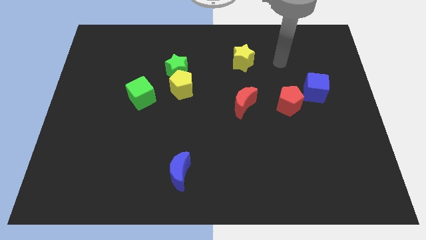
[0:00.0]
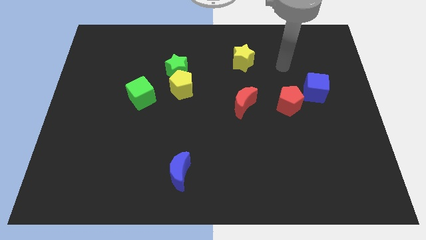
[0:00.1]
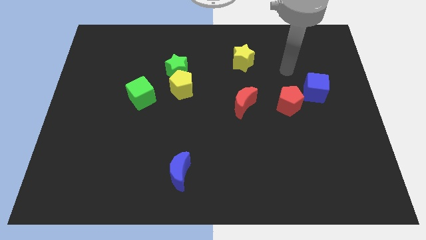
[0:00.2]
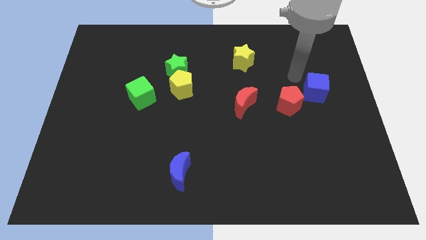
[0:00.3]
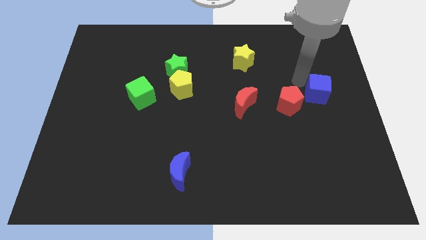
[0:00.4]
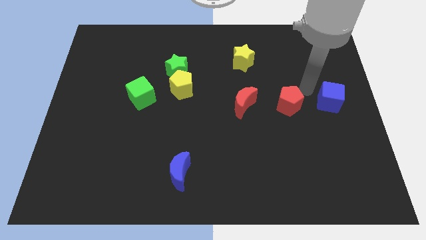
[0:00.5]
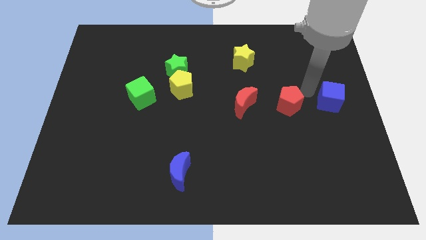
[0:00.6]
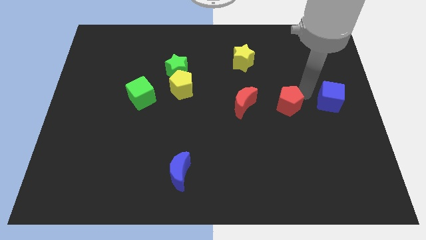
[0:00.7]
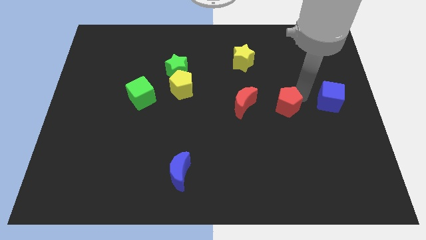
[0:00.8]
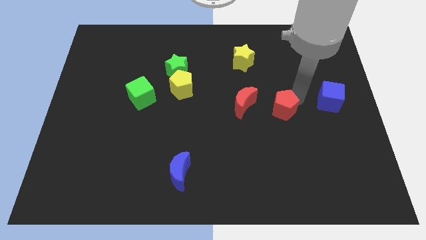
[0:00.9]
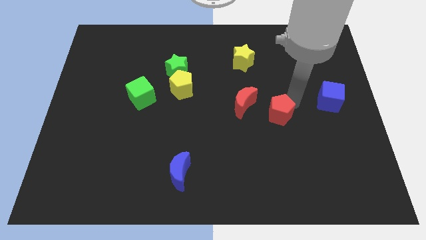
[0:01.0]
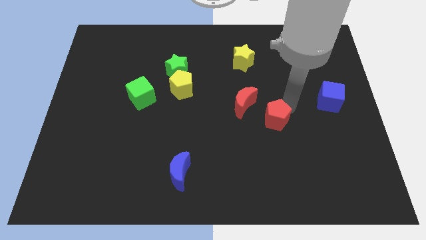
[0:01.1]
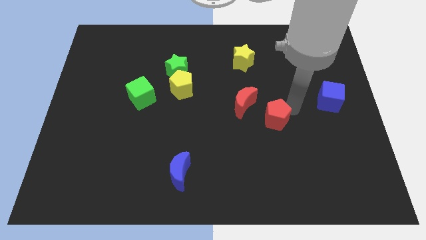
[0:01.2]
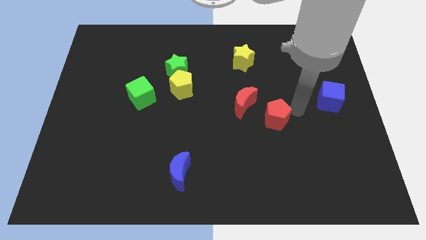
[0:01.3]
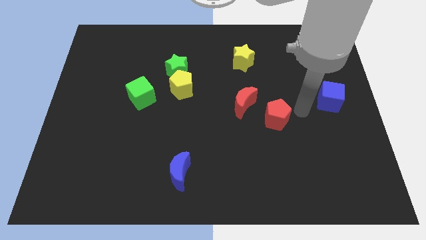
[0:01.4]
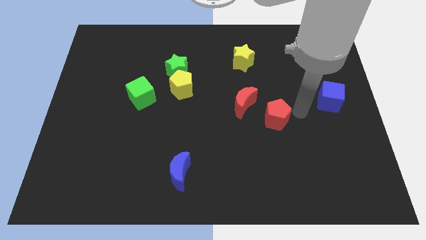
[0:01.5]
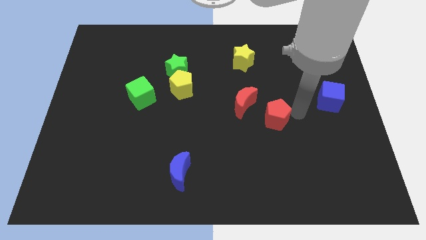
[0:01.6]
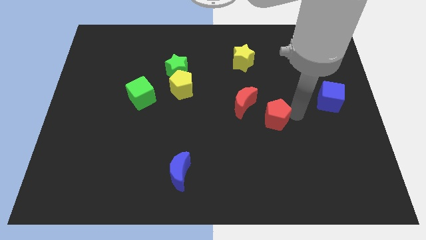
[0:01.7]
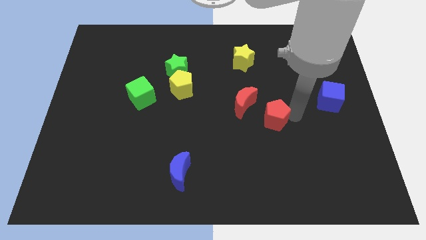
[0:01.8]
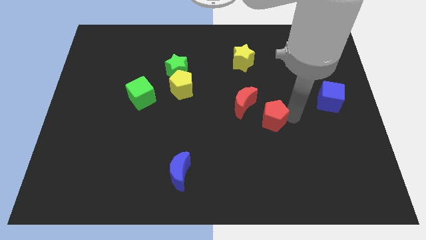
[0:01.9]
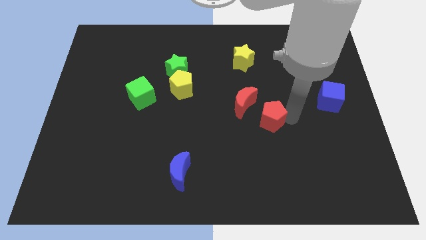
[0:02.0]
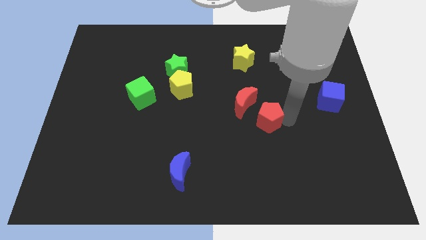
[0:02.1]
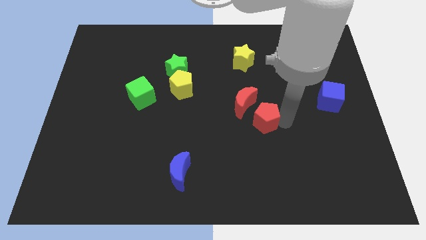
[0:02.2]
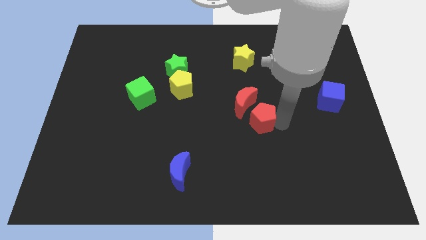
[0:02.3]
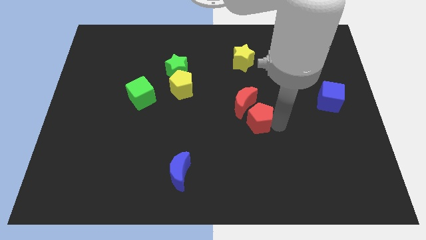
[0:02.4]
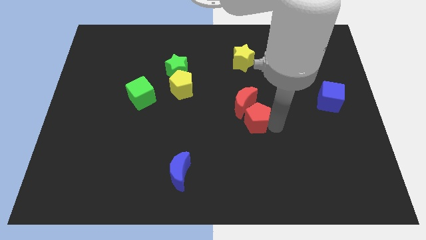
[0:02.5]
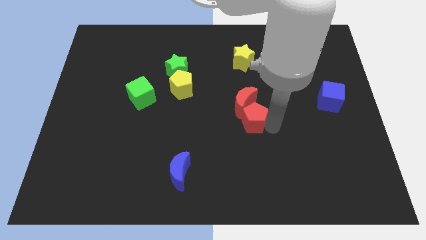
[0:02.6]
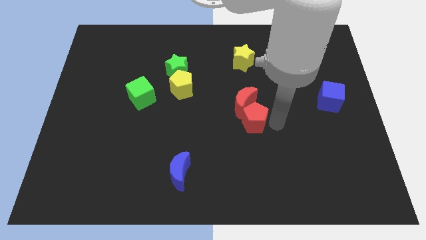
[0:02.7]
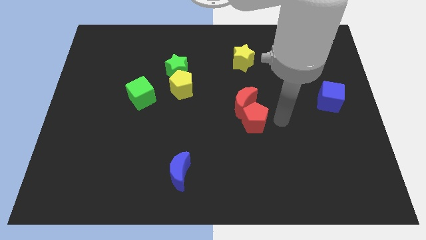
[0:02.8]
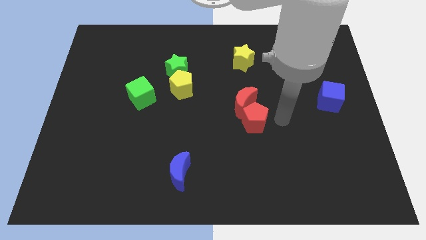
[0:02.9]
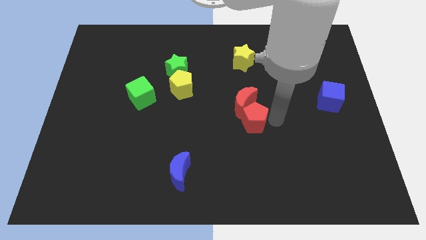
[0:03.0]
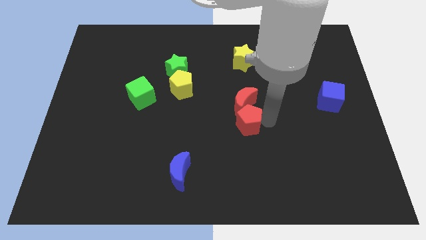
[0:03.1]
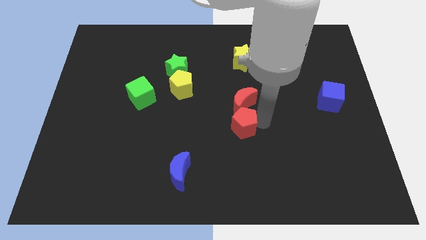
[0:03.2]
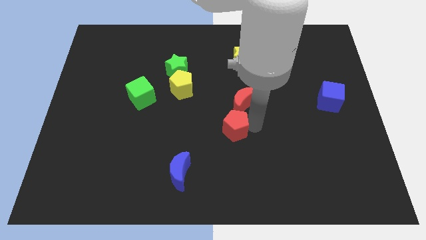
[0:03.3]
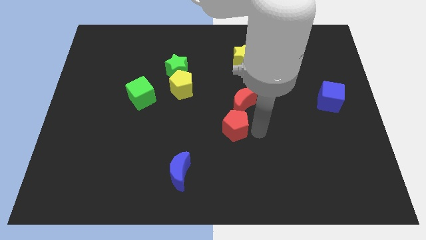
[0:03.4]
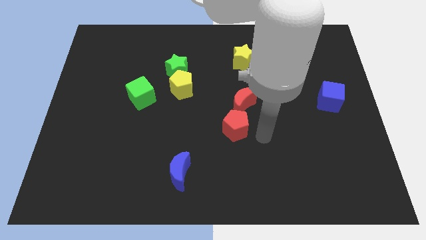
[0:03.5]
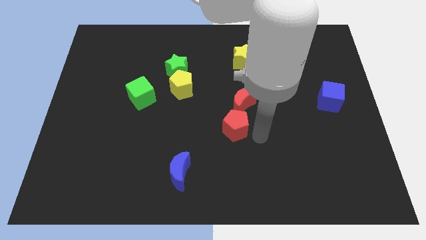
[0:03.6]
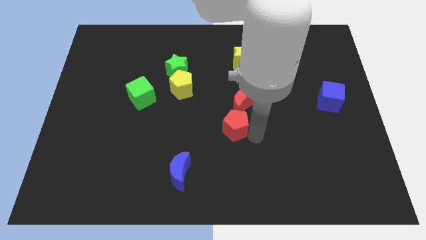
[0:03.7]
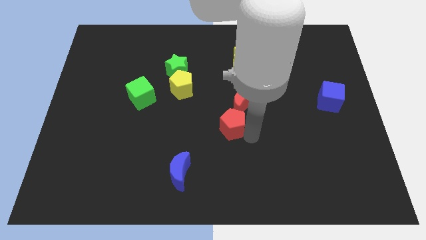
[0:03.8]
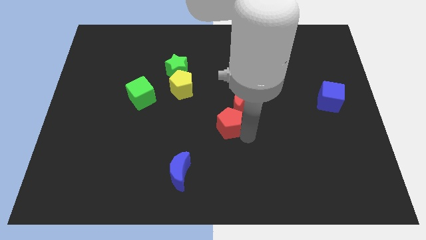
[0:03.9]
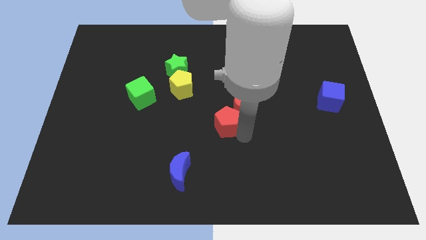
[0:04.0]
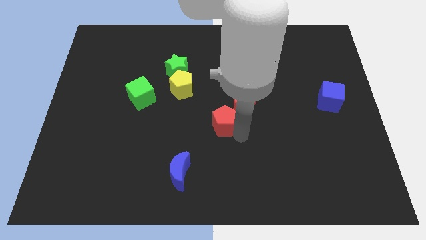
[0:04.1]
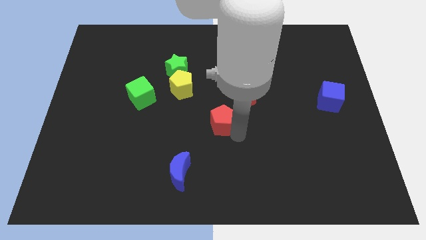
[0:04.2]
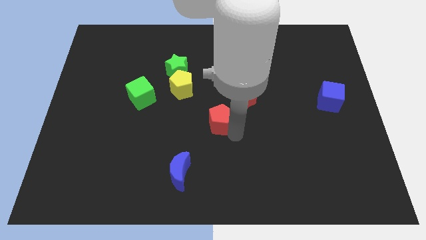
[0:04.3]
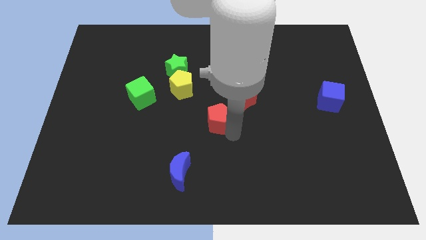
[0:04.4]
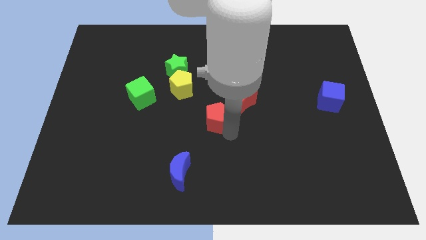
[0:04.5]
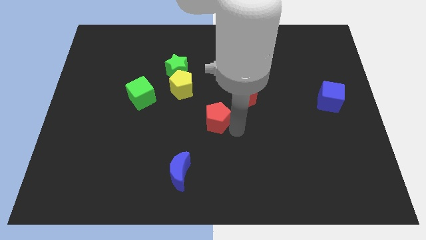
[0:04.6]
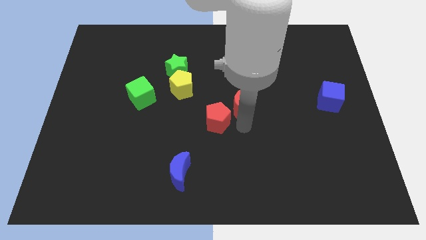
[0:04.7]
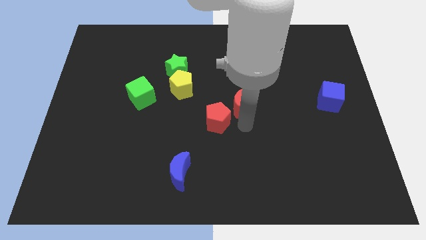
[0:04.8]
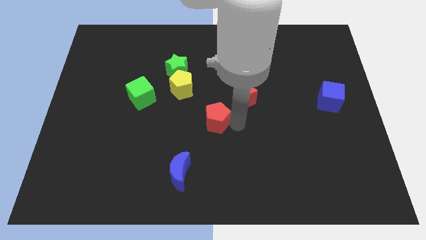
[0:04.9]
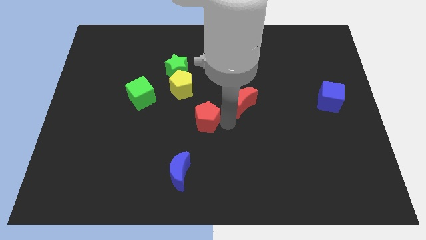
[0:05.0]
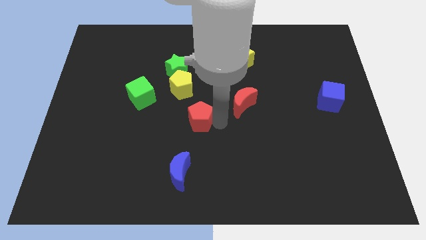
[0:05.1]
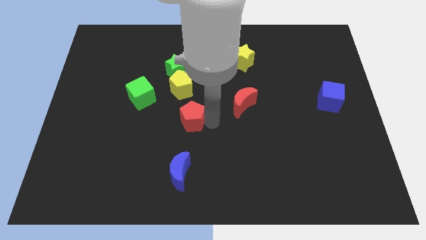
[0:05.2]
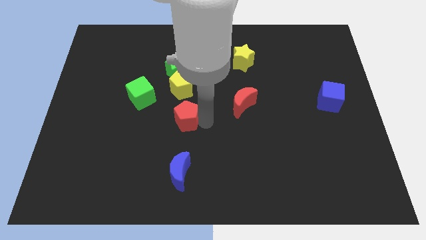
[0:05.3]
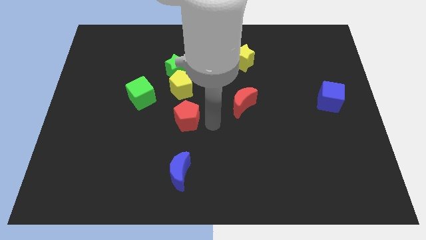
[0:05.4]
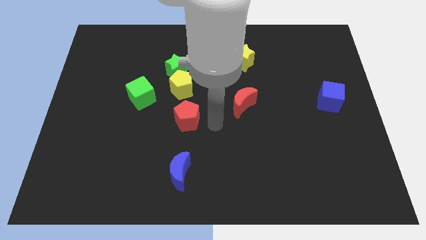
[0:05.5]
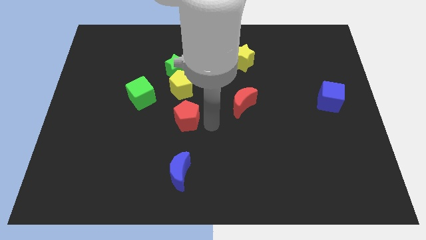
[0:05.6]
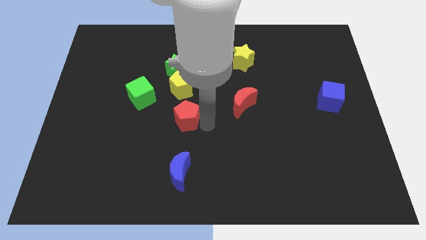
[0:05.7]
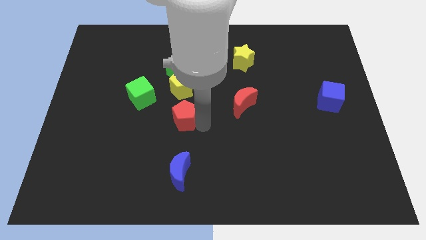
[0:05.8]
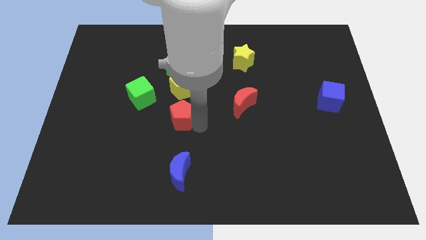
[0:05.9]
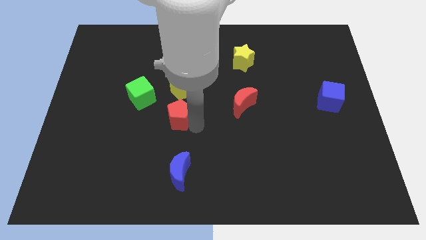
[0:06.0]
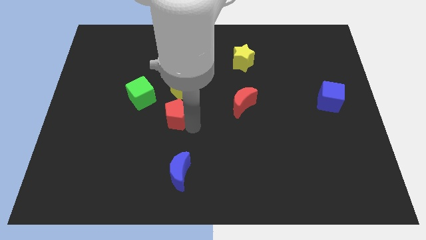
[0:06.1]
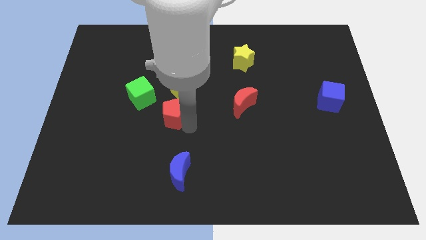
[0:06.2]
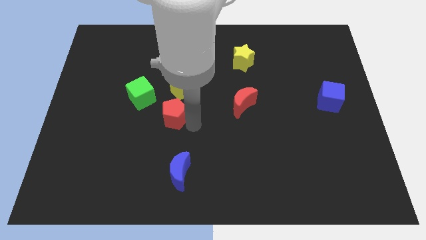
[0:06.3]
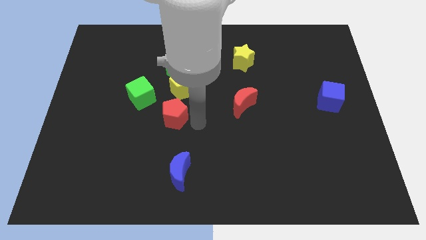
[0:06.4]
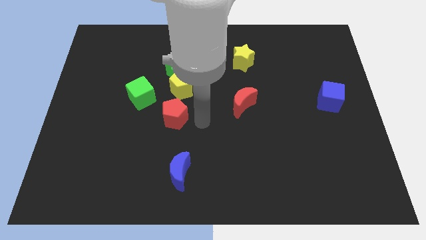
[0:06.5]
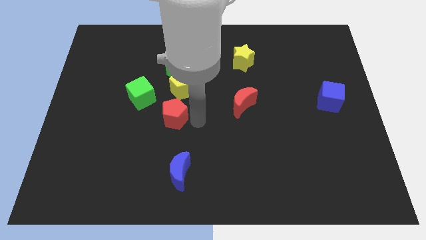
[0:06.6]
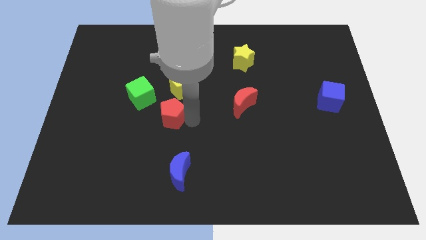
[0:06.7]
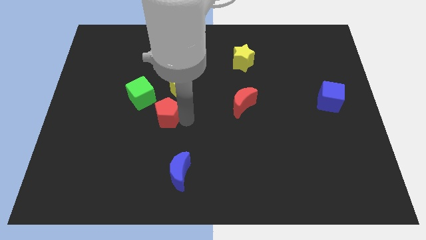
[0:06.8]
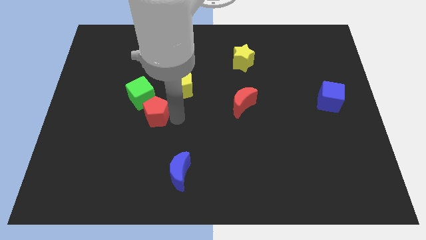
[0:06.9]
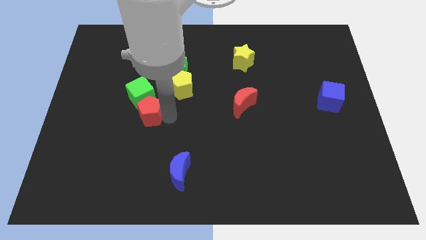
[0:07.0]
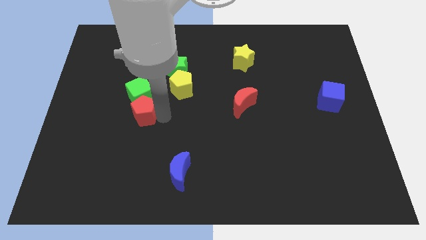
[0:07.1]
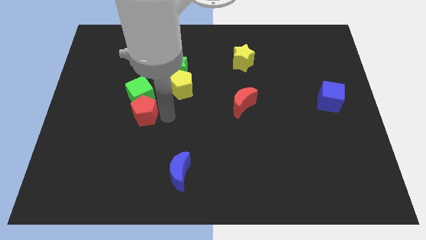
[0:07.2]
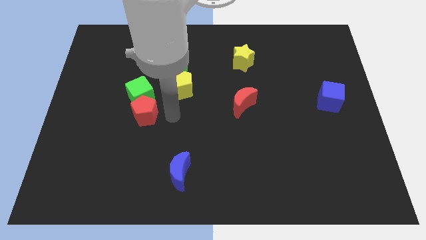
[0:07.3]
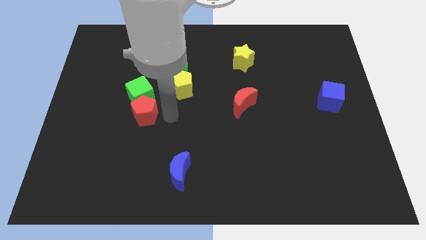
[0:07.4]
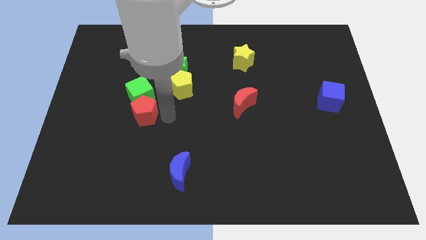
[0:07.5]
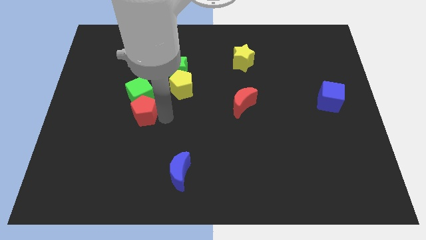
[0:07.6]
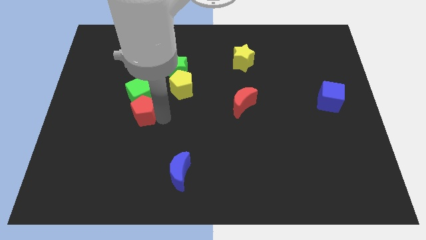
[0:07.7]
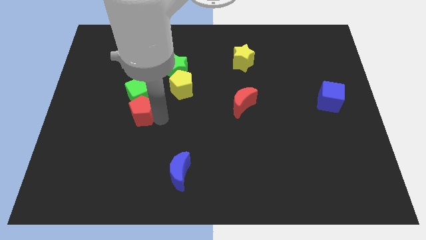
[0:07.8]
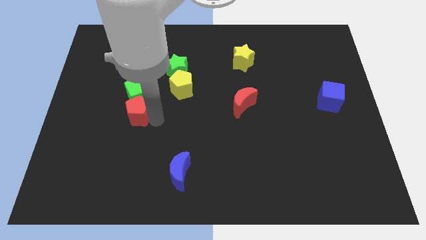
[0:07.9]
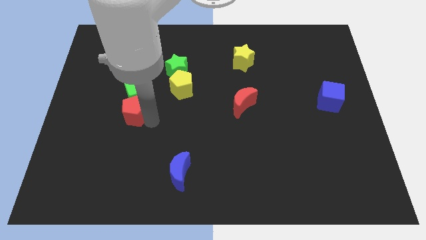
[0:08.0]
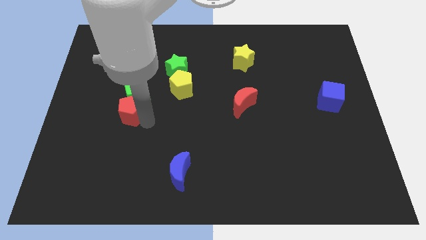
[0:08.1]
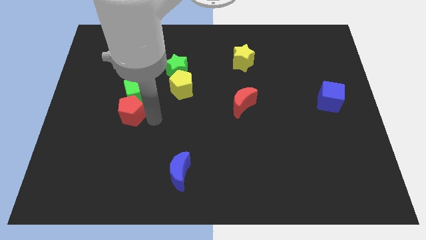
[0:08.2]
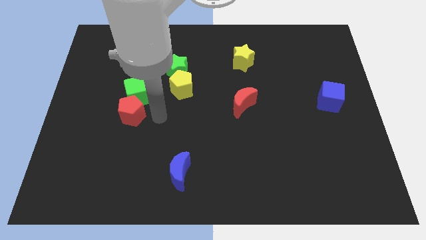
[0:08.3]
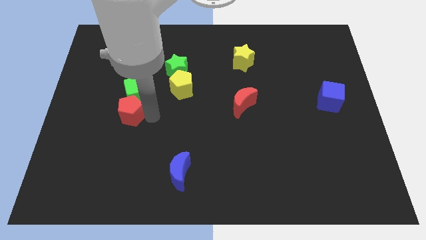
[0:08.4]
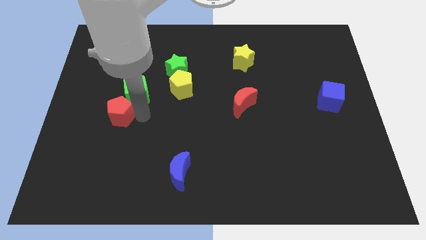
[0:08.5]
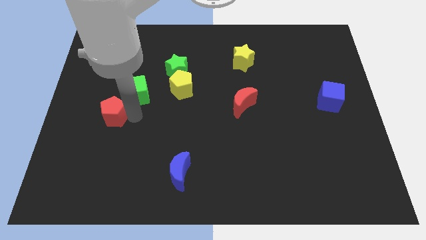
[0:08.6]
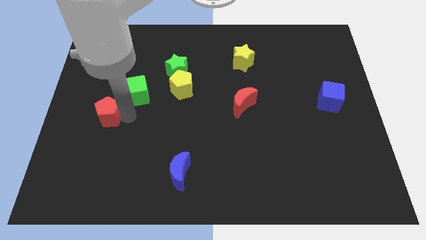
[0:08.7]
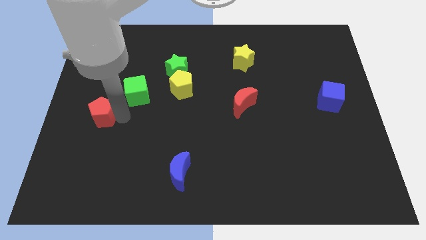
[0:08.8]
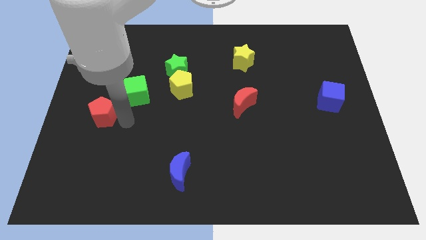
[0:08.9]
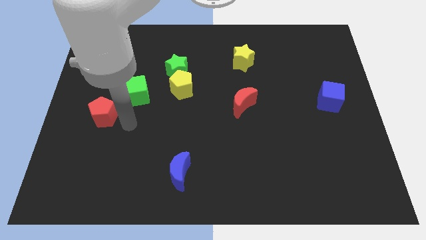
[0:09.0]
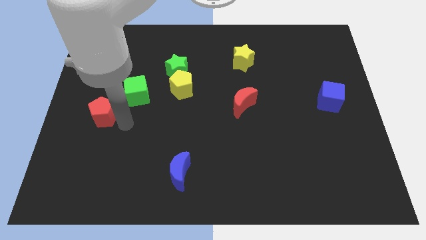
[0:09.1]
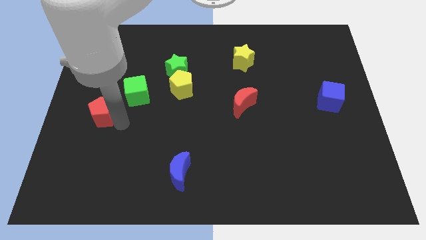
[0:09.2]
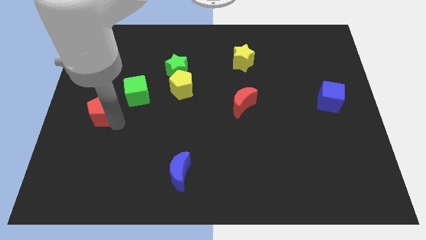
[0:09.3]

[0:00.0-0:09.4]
slide the red pentagon to the left side
